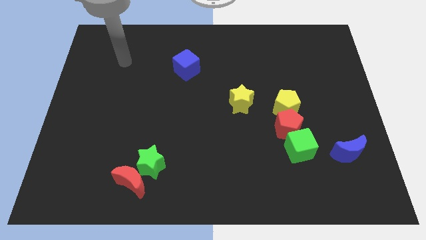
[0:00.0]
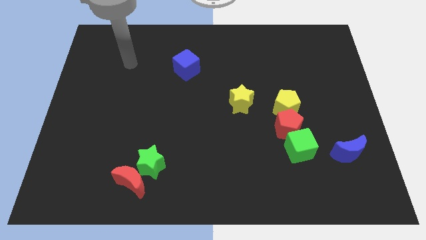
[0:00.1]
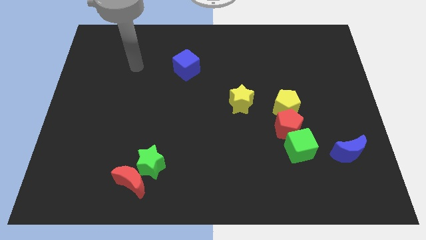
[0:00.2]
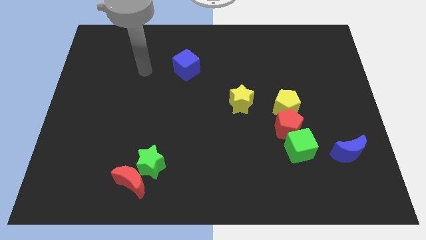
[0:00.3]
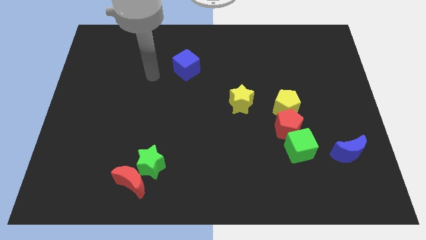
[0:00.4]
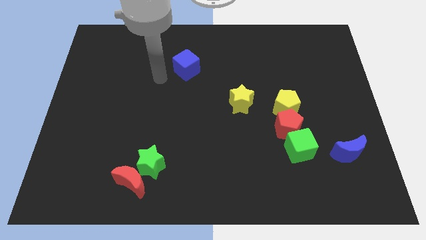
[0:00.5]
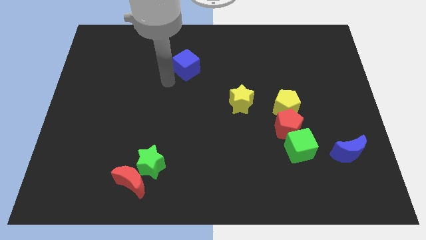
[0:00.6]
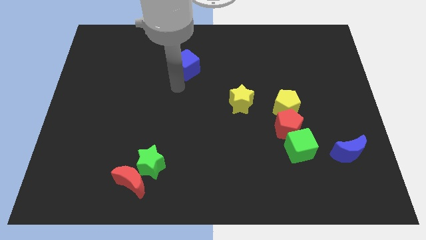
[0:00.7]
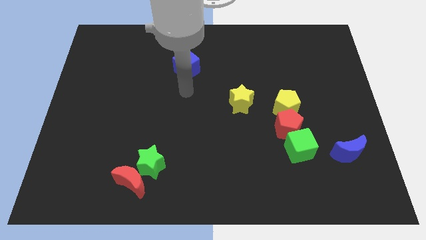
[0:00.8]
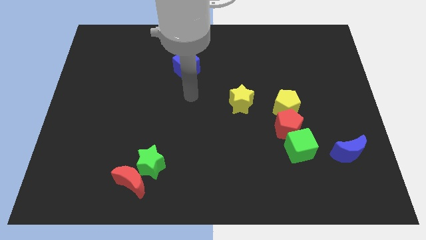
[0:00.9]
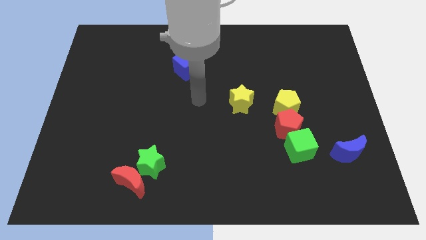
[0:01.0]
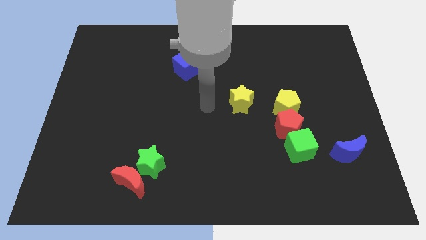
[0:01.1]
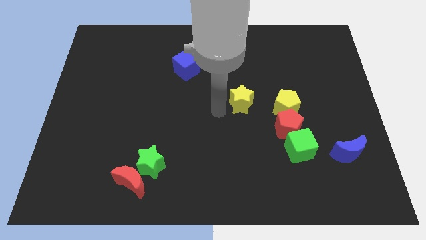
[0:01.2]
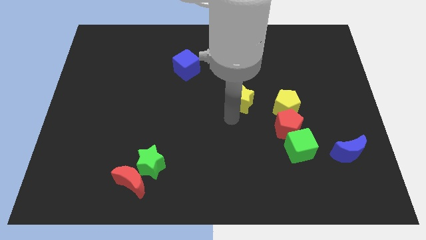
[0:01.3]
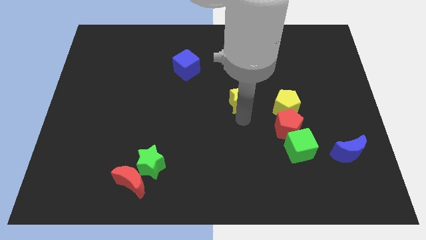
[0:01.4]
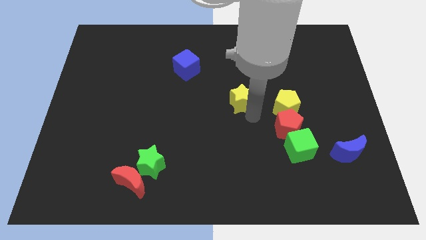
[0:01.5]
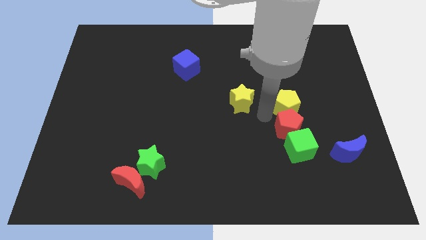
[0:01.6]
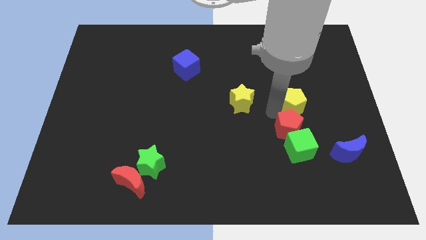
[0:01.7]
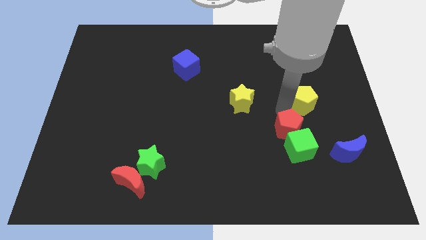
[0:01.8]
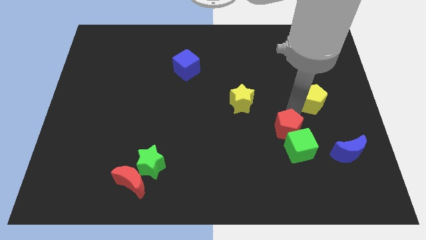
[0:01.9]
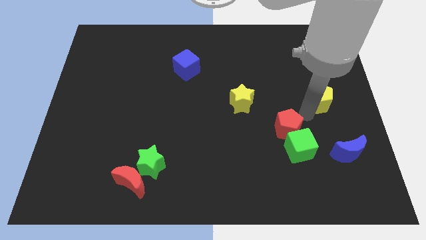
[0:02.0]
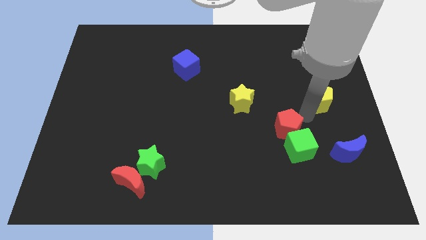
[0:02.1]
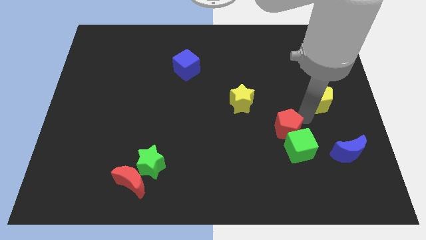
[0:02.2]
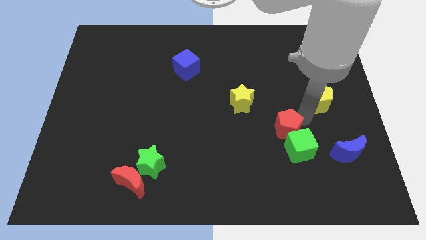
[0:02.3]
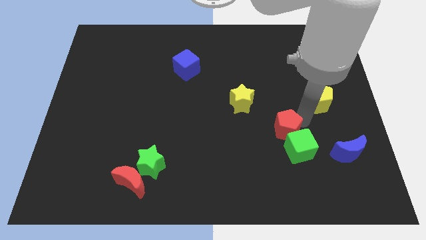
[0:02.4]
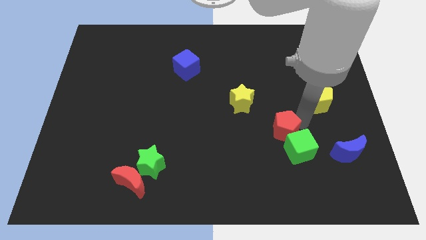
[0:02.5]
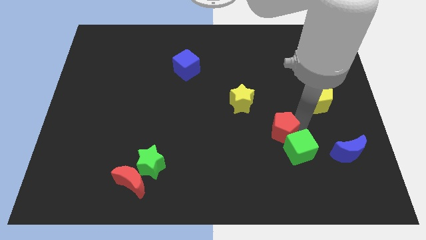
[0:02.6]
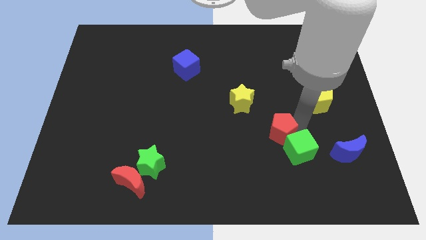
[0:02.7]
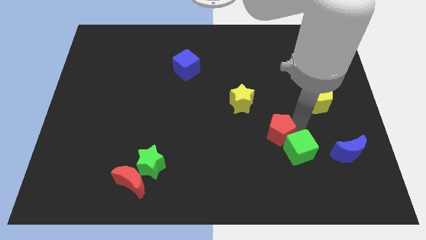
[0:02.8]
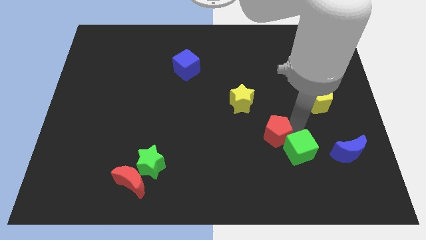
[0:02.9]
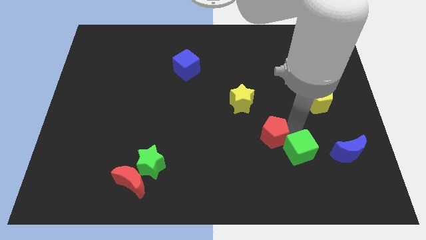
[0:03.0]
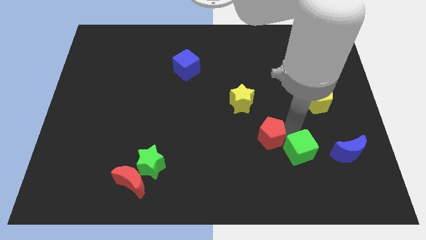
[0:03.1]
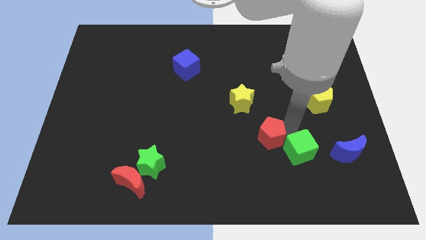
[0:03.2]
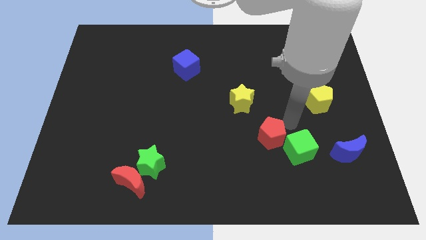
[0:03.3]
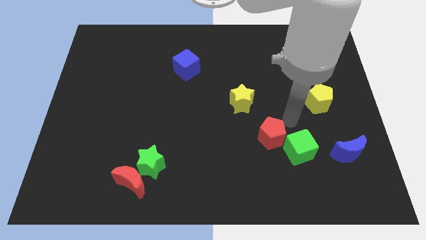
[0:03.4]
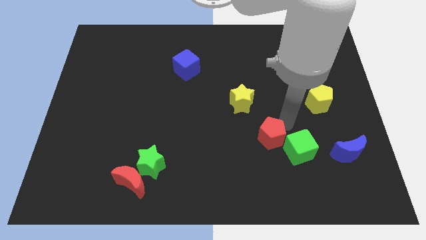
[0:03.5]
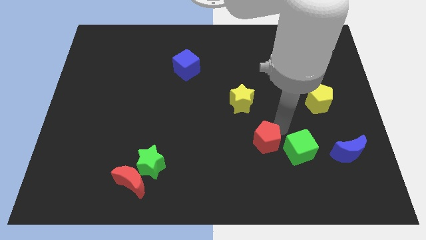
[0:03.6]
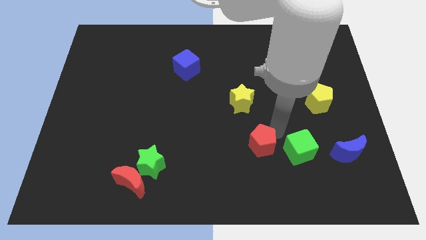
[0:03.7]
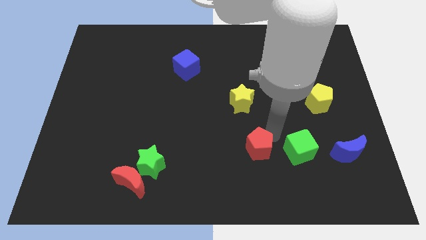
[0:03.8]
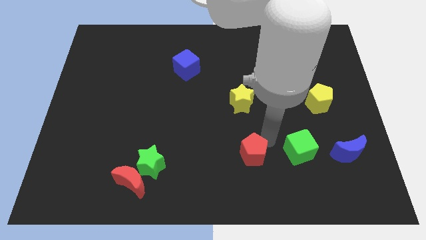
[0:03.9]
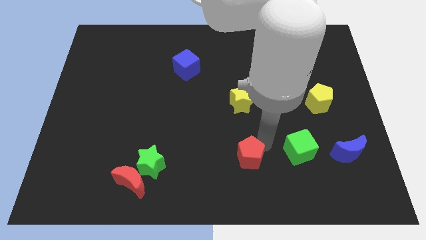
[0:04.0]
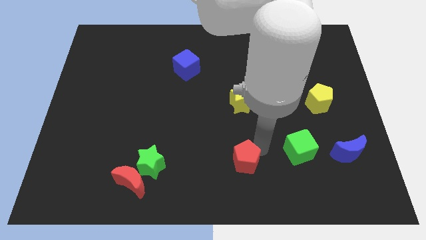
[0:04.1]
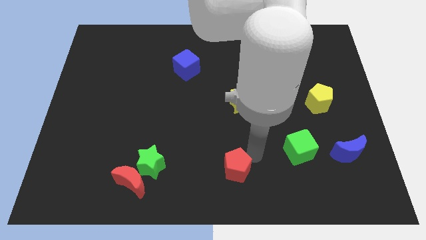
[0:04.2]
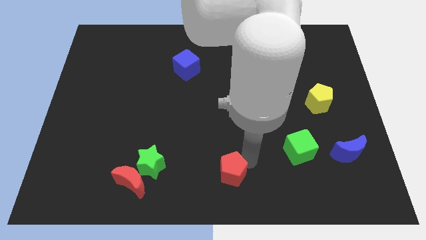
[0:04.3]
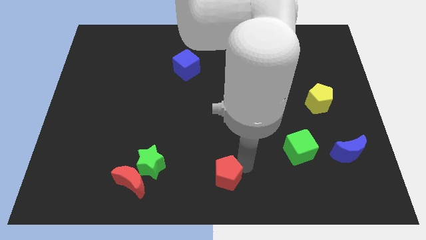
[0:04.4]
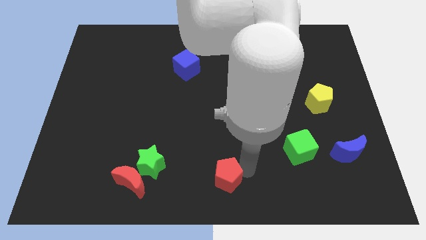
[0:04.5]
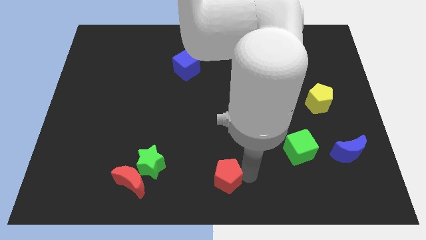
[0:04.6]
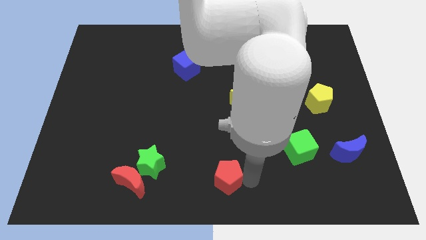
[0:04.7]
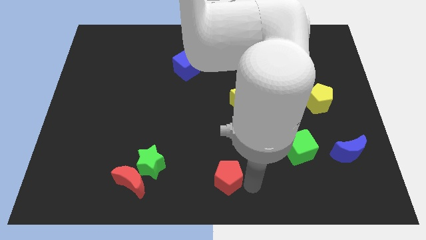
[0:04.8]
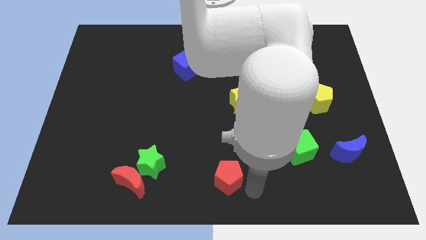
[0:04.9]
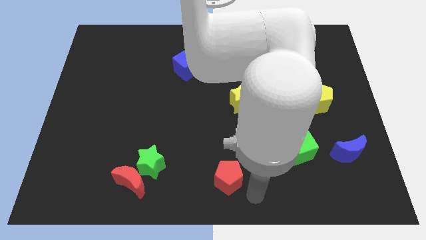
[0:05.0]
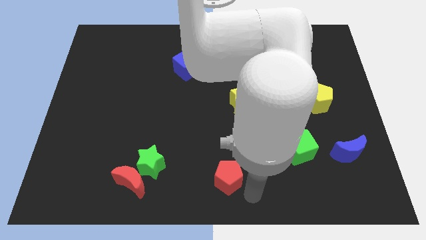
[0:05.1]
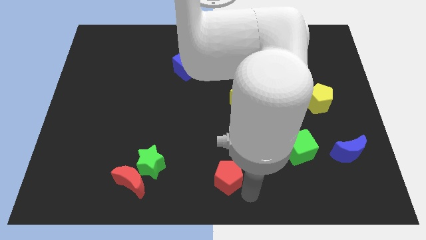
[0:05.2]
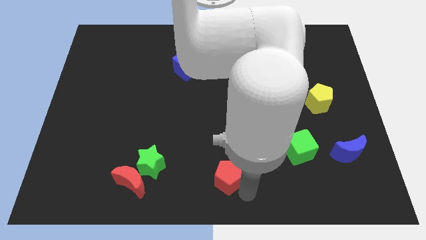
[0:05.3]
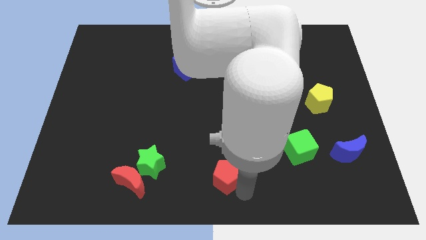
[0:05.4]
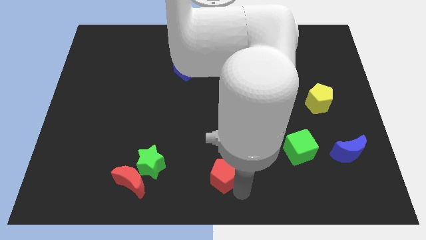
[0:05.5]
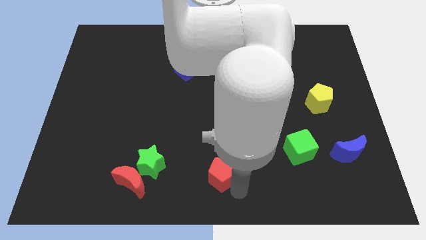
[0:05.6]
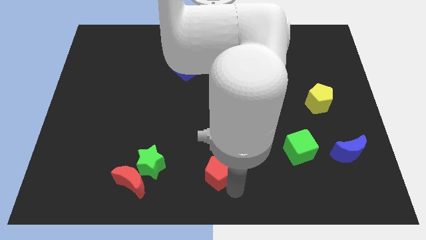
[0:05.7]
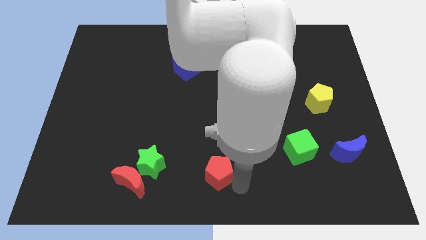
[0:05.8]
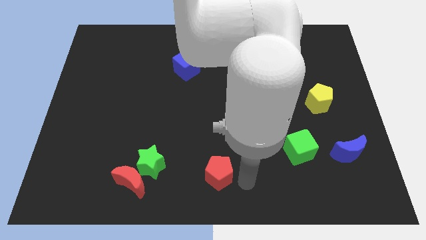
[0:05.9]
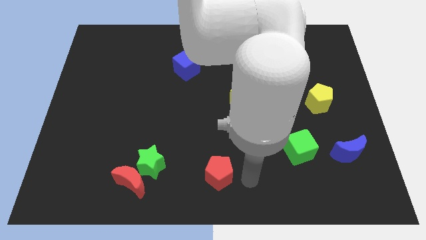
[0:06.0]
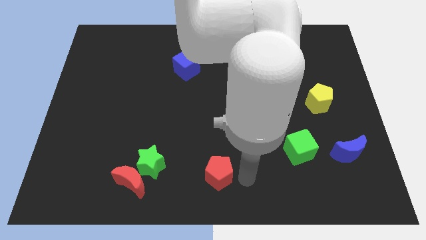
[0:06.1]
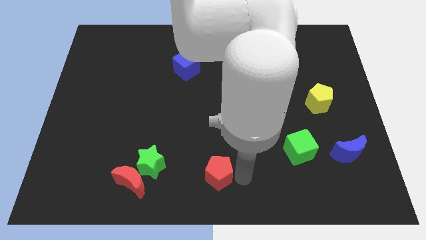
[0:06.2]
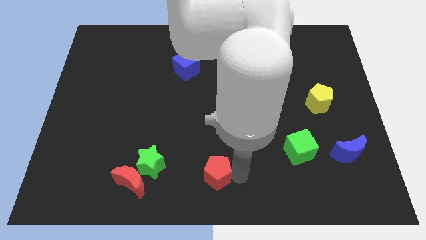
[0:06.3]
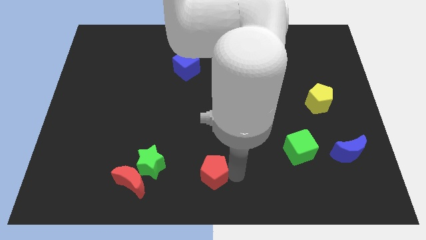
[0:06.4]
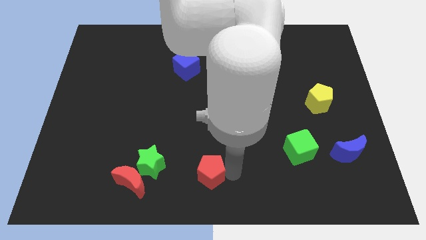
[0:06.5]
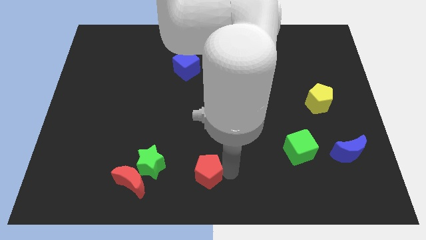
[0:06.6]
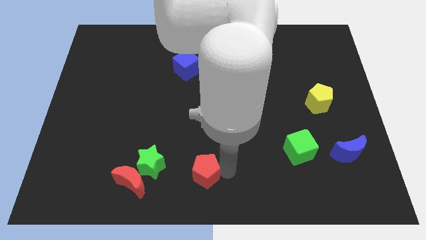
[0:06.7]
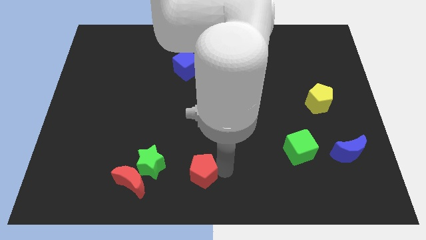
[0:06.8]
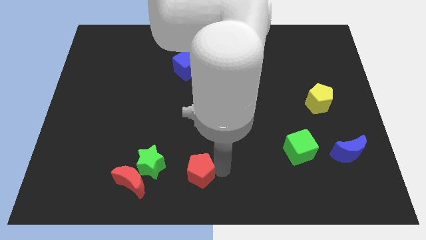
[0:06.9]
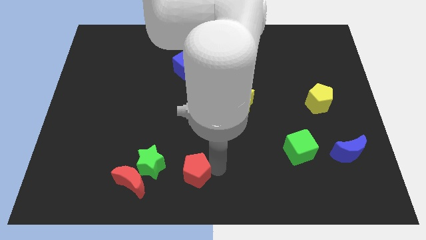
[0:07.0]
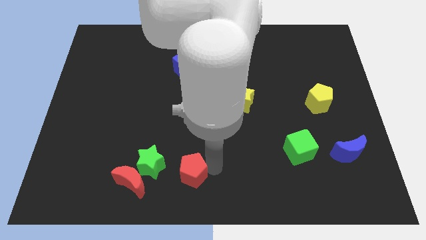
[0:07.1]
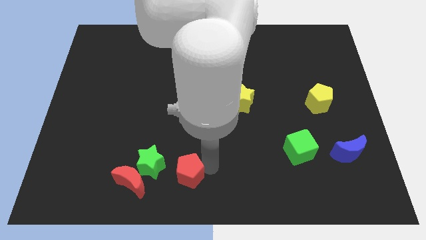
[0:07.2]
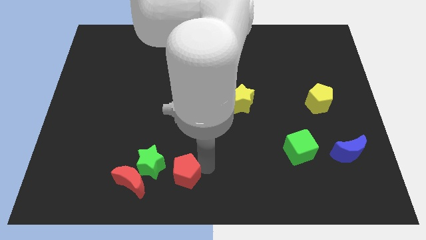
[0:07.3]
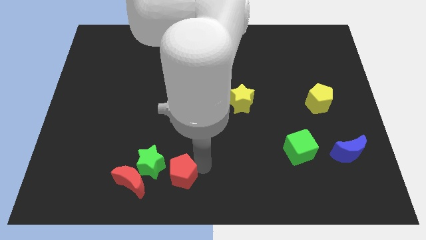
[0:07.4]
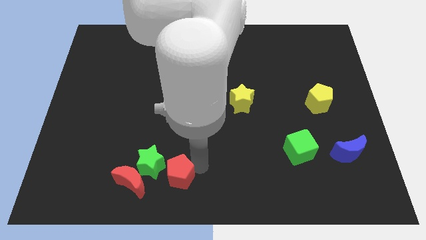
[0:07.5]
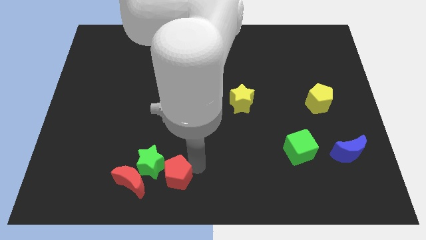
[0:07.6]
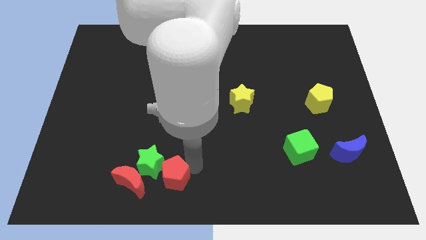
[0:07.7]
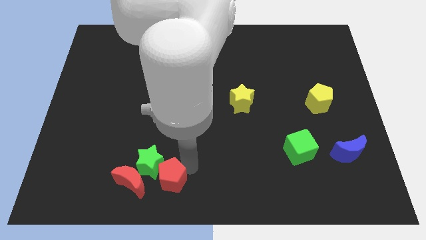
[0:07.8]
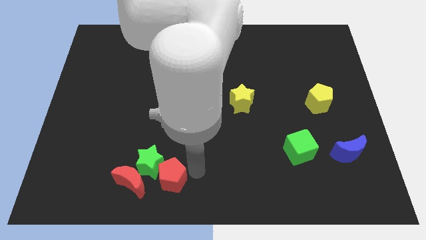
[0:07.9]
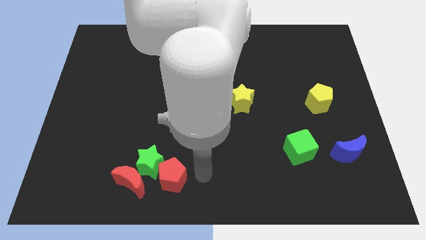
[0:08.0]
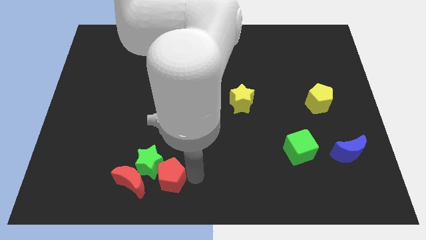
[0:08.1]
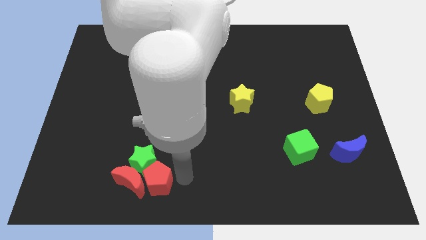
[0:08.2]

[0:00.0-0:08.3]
move the red pentagon to the red moon
